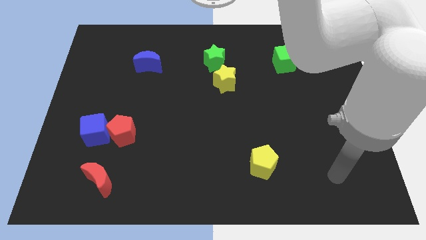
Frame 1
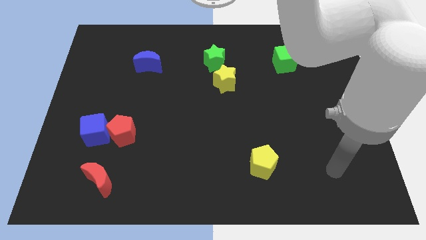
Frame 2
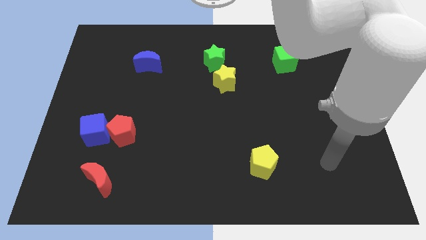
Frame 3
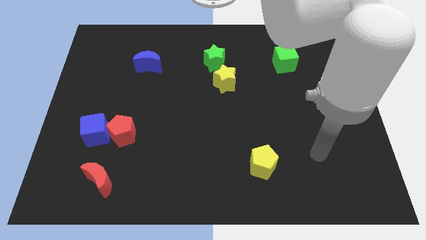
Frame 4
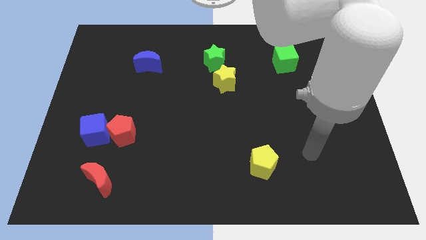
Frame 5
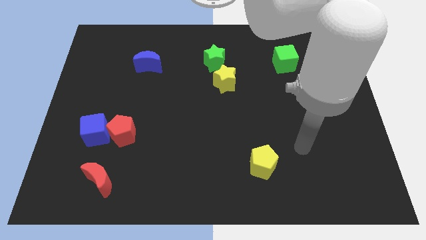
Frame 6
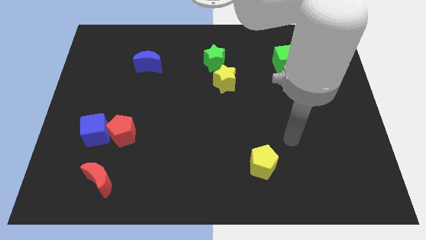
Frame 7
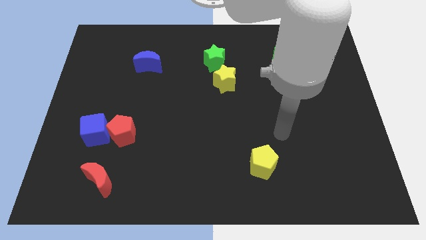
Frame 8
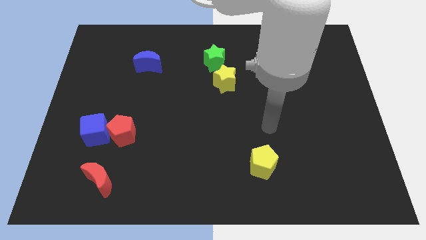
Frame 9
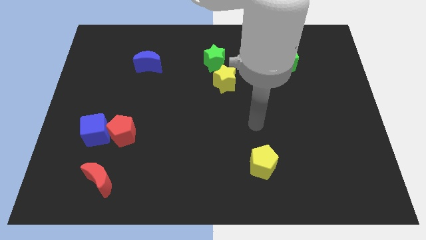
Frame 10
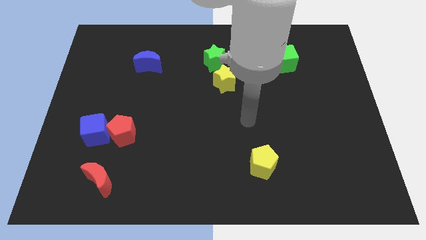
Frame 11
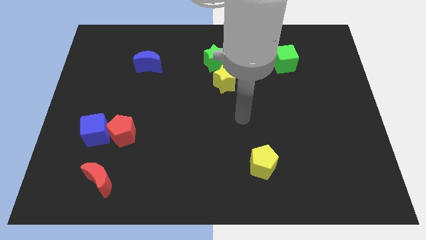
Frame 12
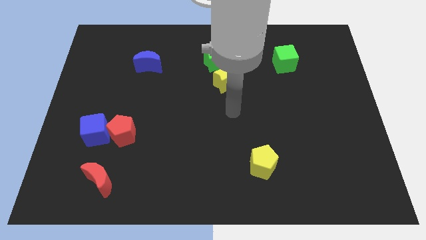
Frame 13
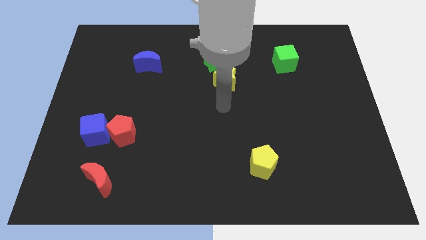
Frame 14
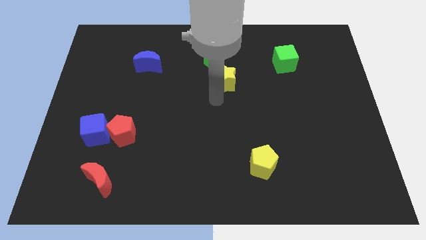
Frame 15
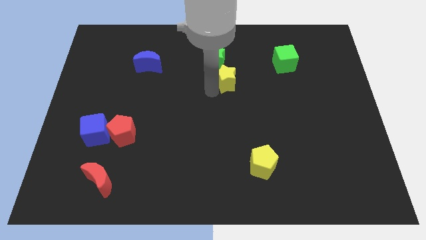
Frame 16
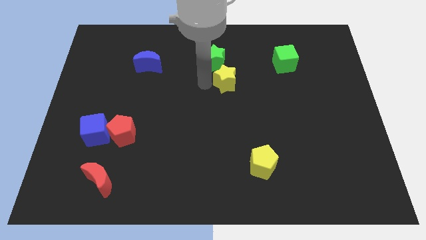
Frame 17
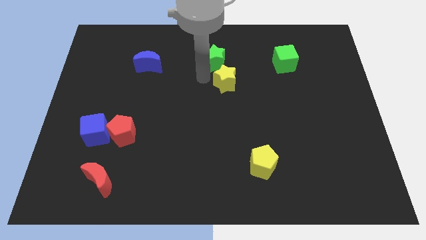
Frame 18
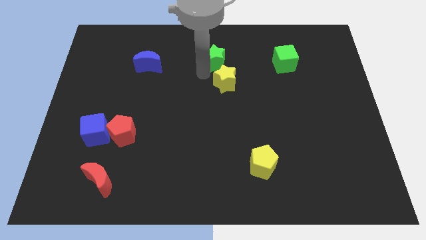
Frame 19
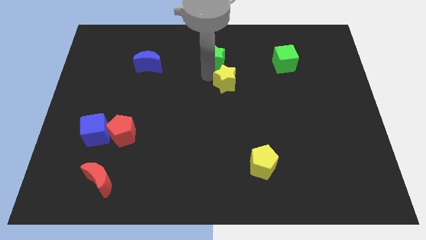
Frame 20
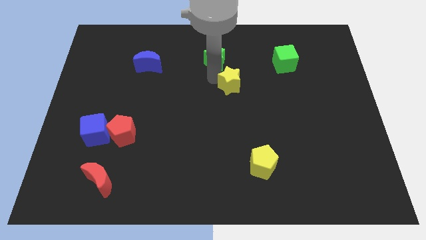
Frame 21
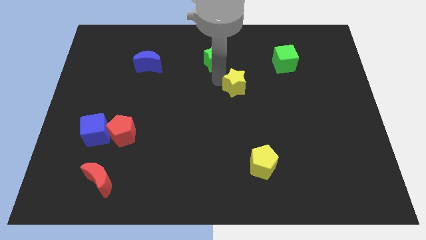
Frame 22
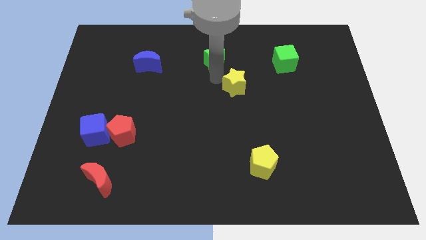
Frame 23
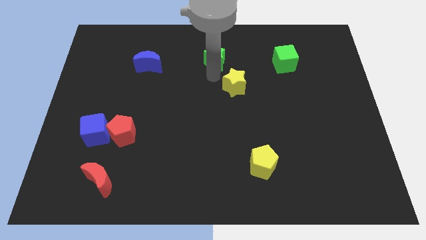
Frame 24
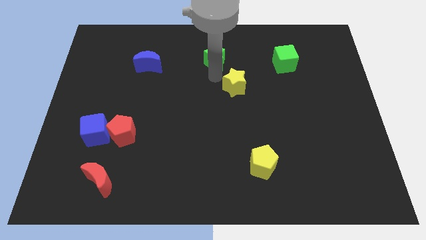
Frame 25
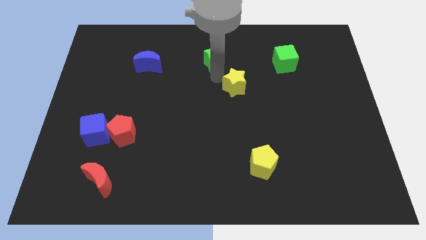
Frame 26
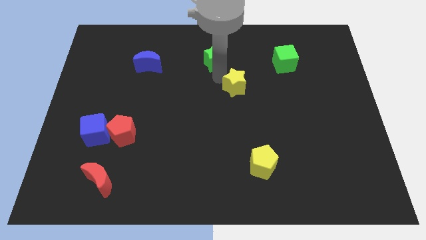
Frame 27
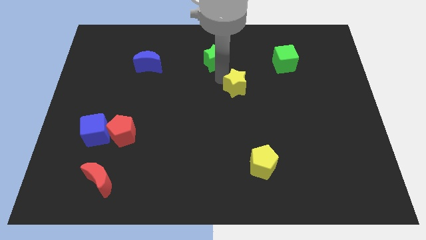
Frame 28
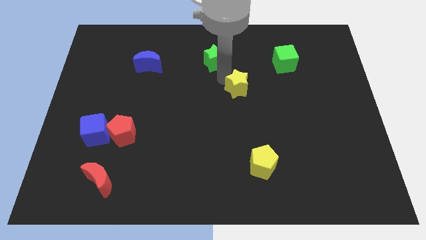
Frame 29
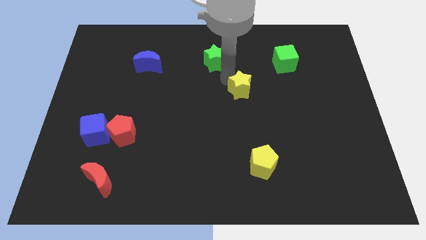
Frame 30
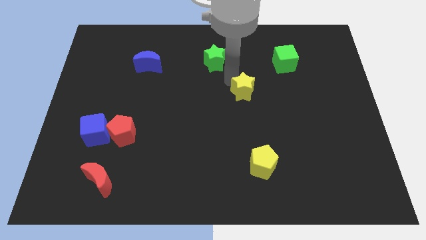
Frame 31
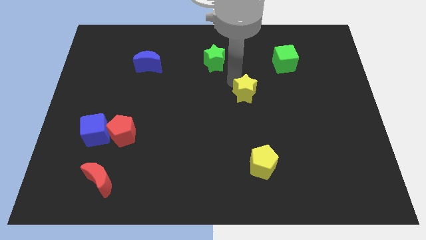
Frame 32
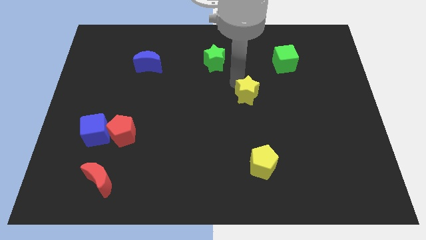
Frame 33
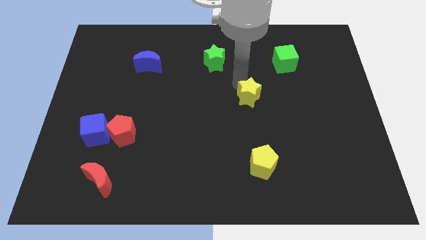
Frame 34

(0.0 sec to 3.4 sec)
push the yellow star downwards and then right a little bit

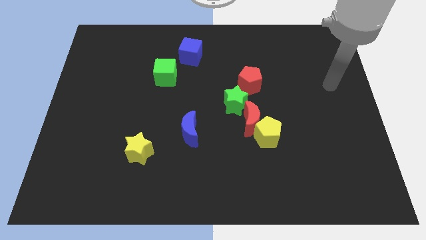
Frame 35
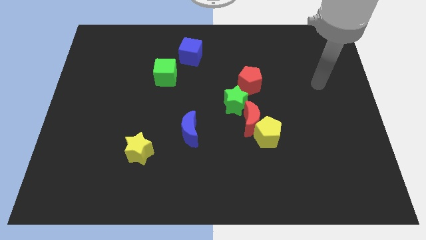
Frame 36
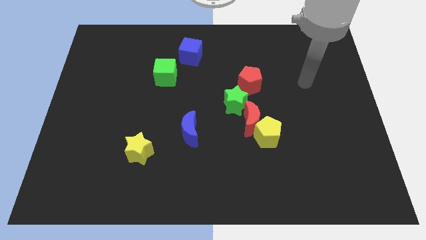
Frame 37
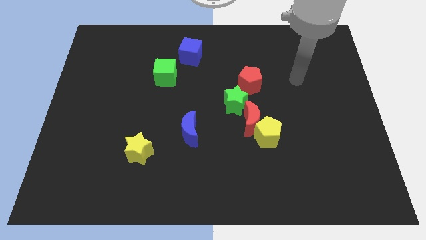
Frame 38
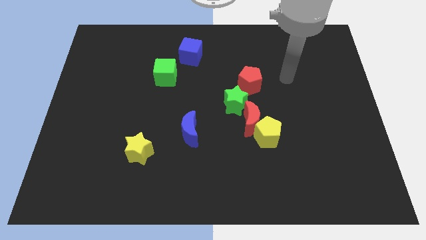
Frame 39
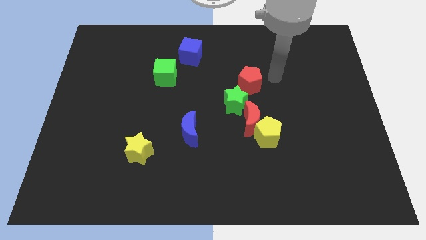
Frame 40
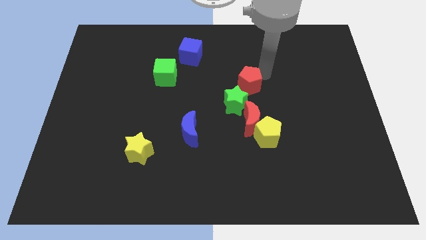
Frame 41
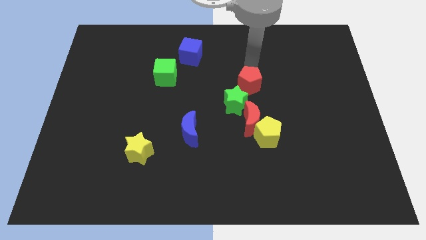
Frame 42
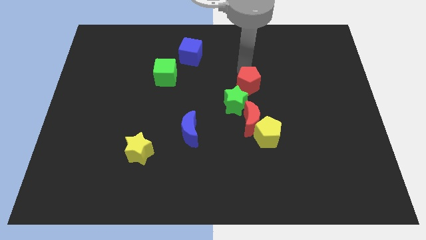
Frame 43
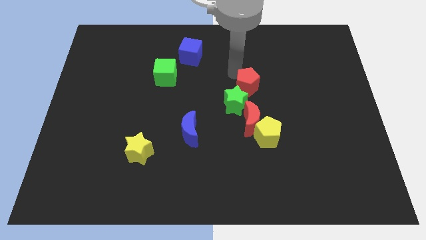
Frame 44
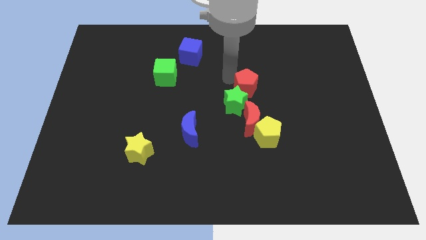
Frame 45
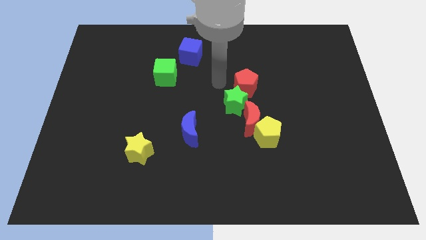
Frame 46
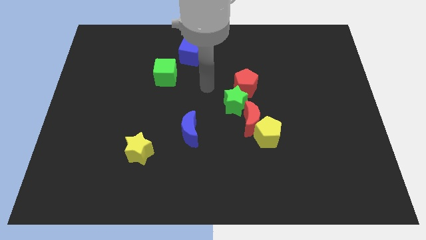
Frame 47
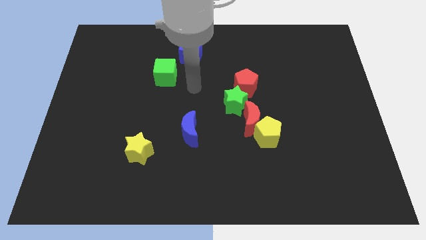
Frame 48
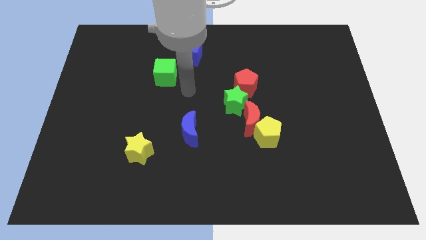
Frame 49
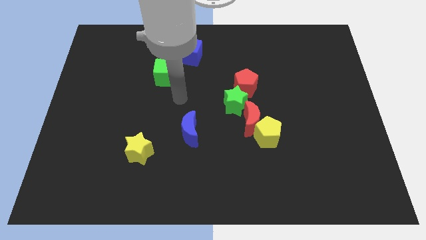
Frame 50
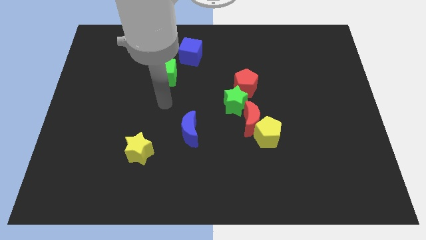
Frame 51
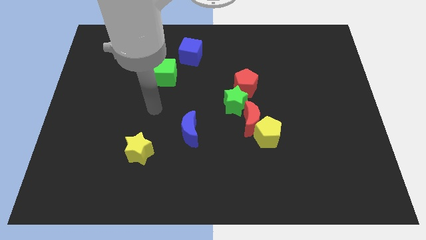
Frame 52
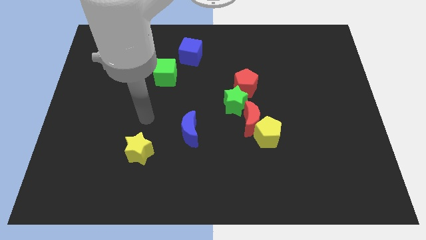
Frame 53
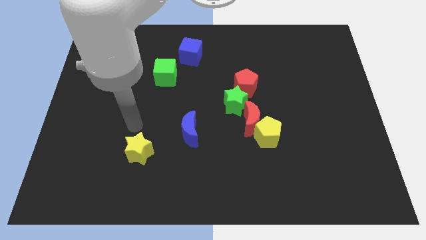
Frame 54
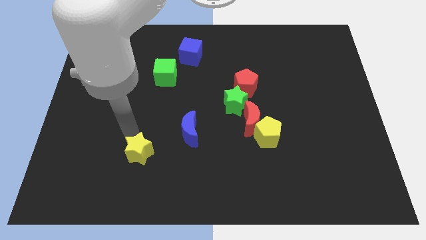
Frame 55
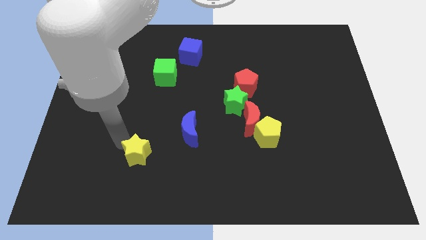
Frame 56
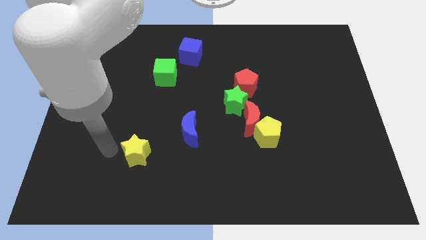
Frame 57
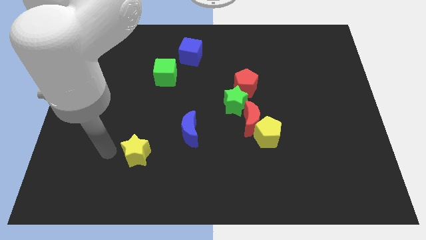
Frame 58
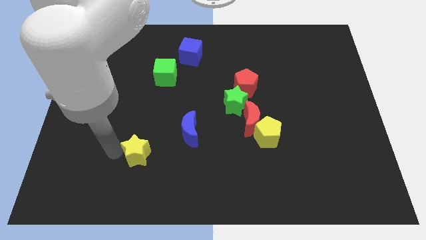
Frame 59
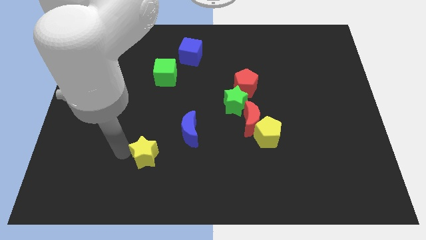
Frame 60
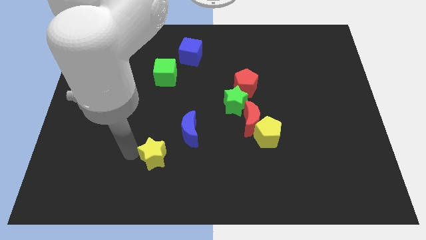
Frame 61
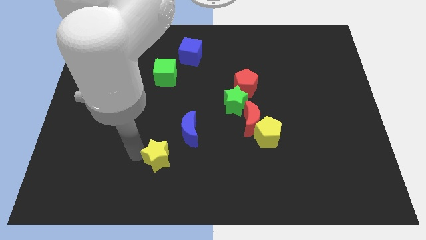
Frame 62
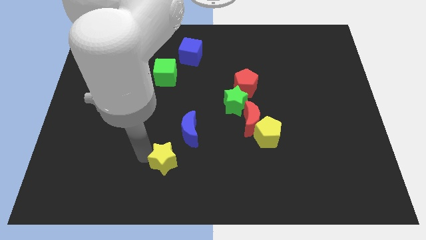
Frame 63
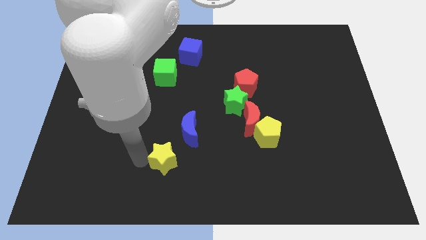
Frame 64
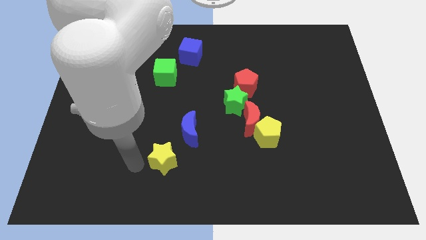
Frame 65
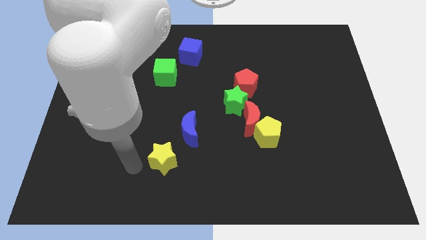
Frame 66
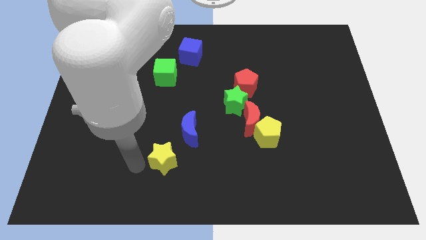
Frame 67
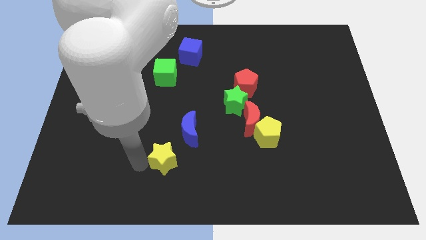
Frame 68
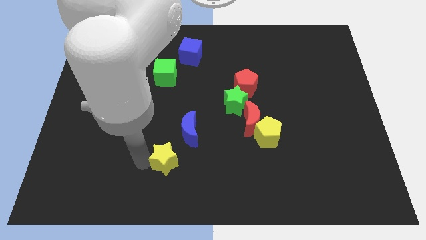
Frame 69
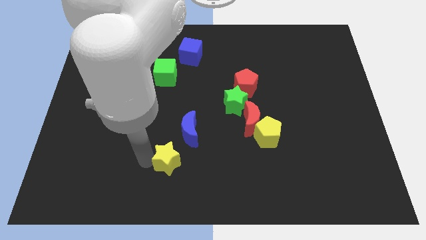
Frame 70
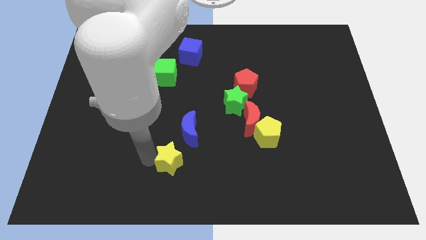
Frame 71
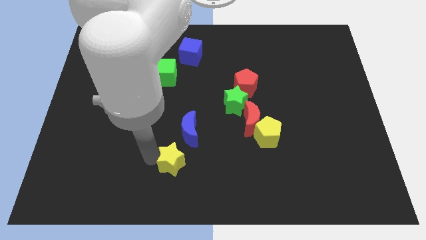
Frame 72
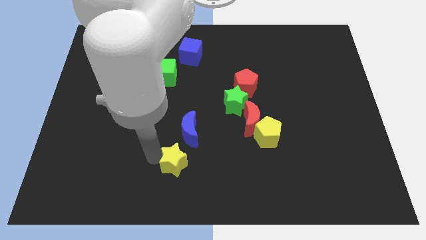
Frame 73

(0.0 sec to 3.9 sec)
push the yellow star a little bit to the right

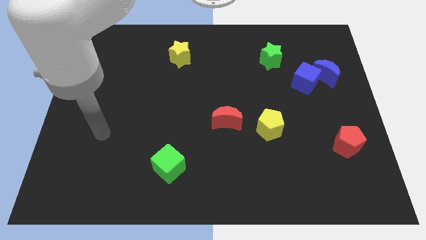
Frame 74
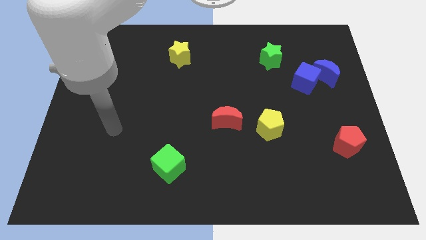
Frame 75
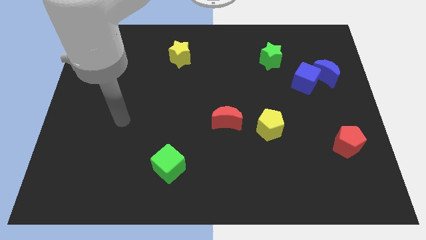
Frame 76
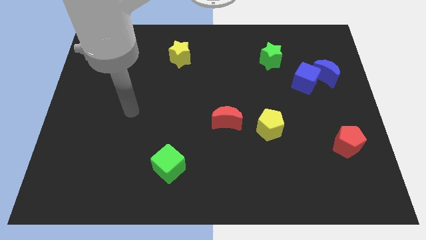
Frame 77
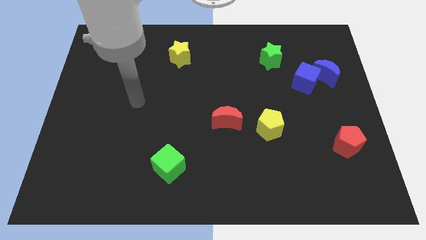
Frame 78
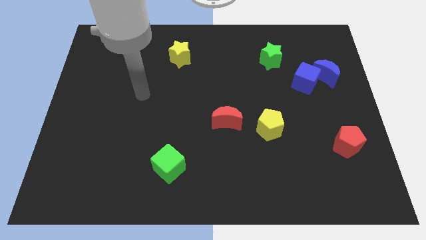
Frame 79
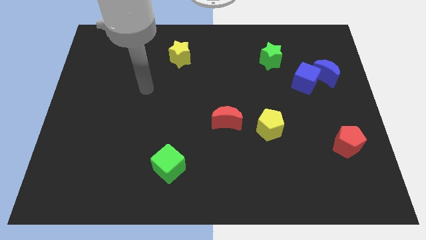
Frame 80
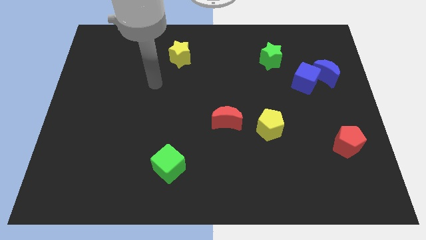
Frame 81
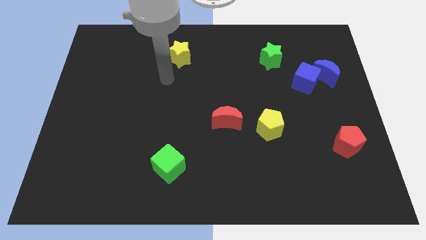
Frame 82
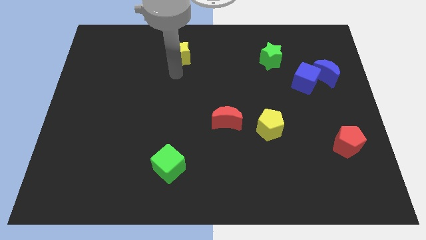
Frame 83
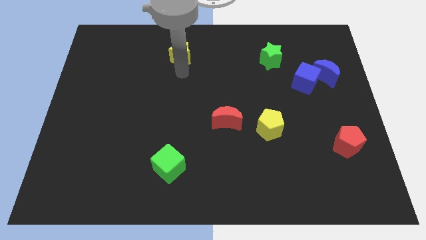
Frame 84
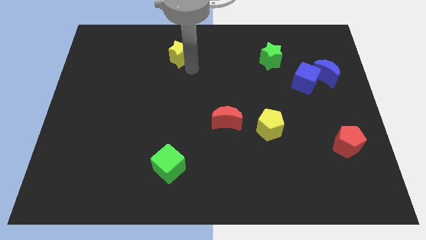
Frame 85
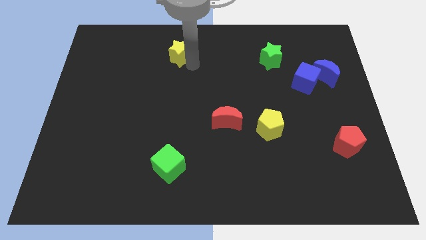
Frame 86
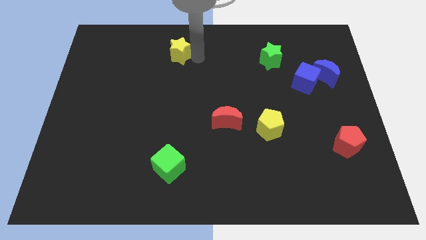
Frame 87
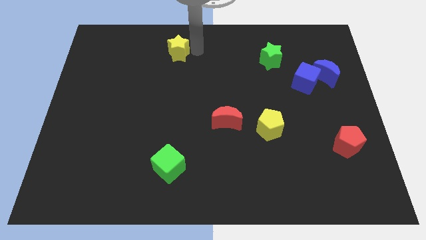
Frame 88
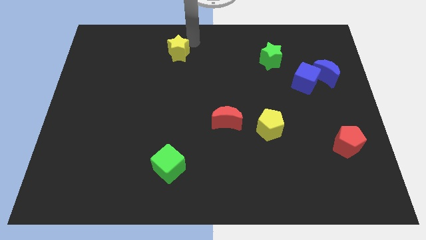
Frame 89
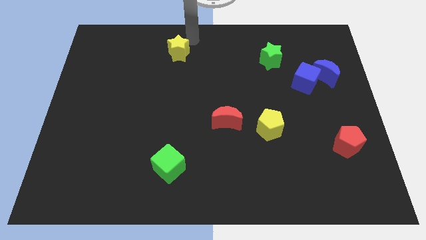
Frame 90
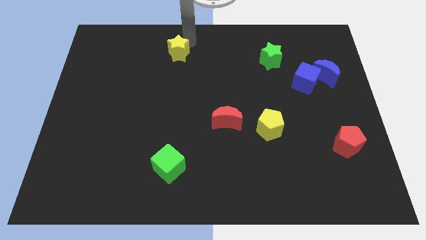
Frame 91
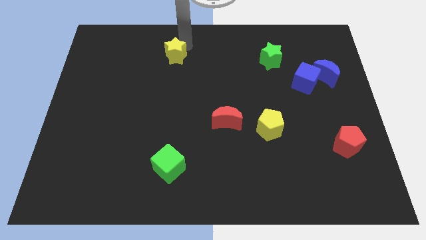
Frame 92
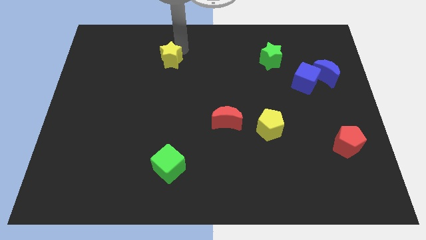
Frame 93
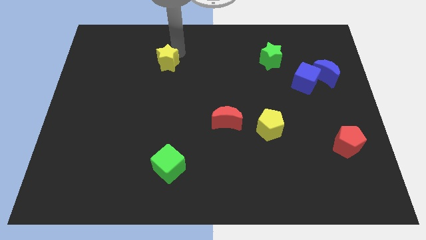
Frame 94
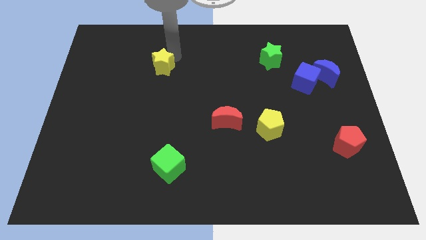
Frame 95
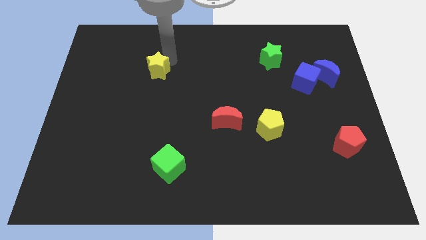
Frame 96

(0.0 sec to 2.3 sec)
slightly slide the yellow star downwards and left
